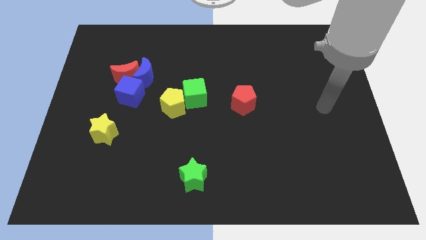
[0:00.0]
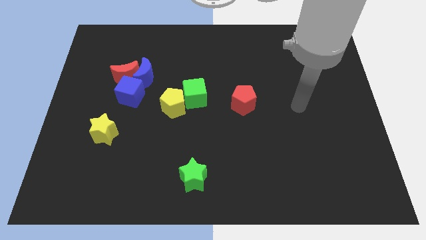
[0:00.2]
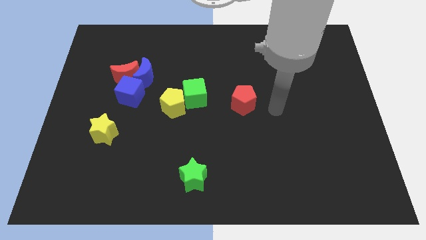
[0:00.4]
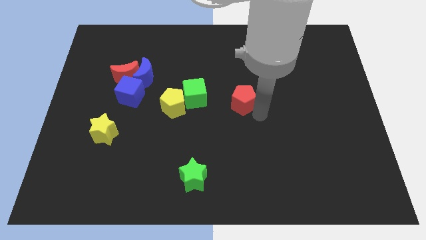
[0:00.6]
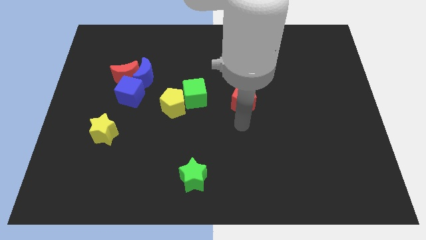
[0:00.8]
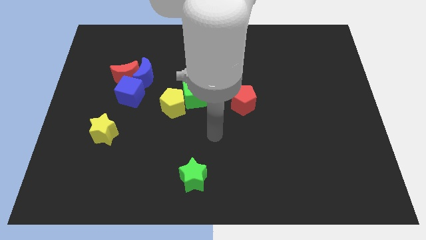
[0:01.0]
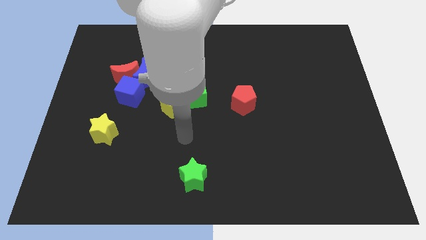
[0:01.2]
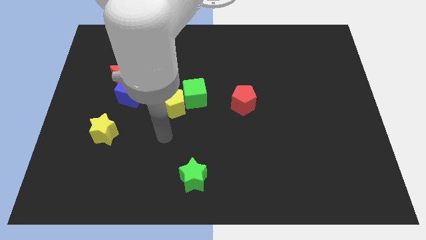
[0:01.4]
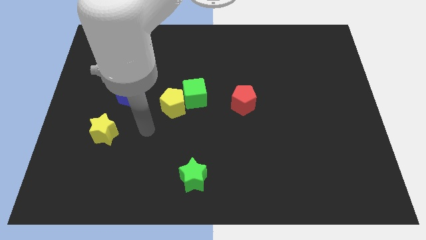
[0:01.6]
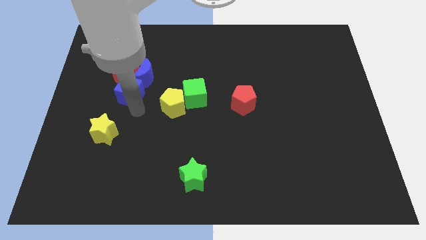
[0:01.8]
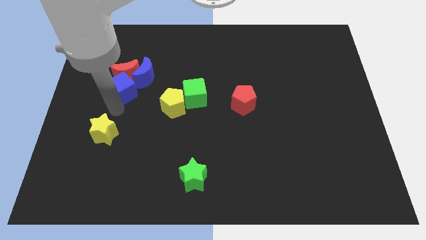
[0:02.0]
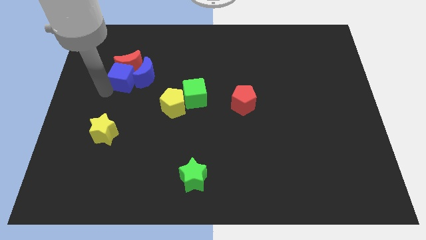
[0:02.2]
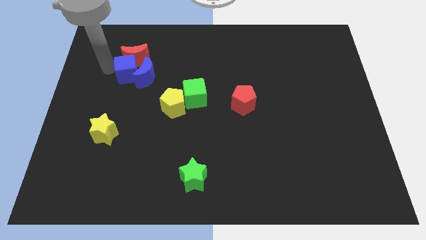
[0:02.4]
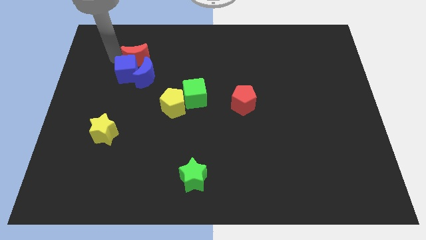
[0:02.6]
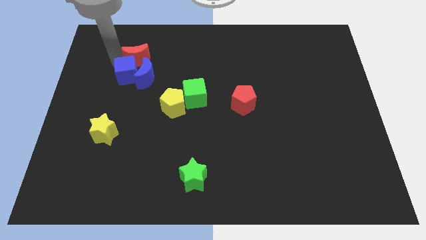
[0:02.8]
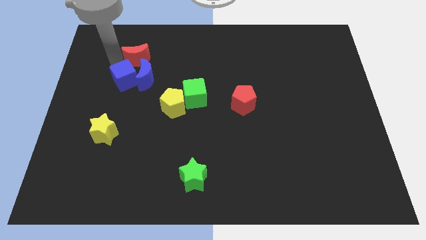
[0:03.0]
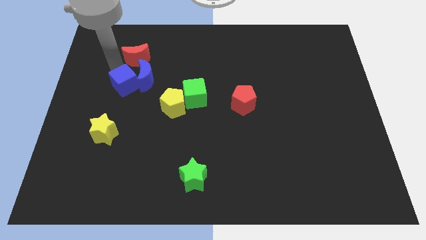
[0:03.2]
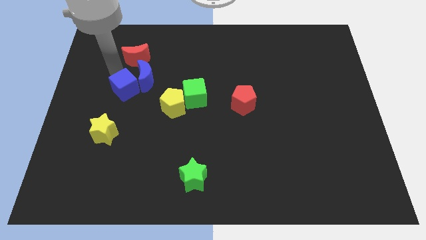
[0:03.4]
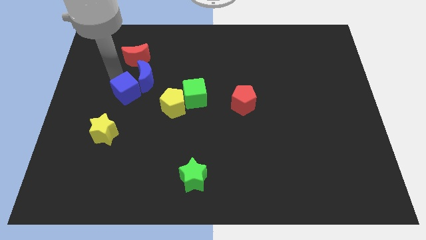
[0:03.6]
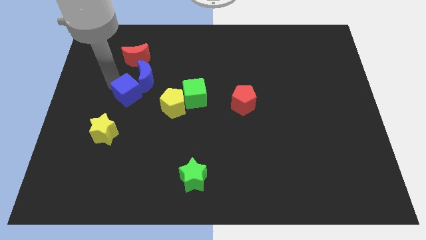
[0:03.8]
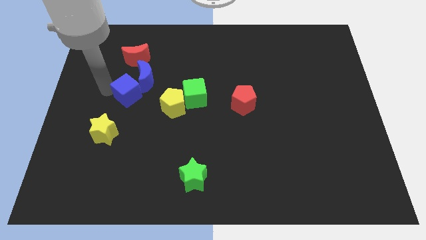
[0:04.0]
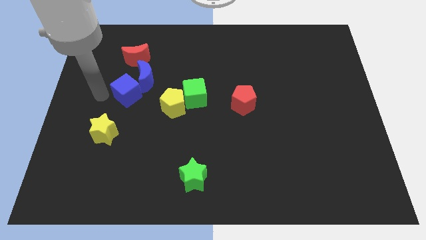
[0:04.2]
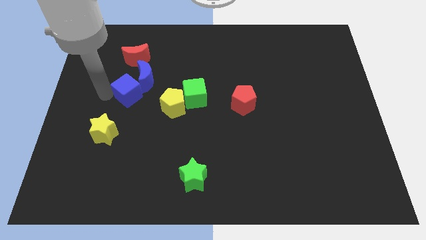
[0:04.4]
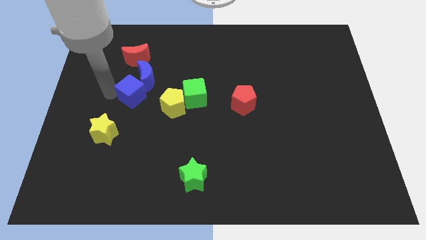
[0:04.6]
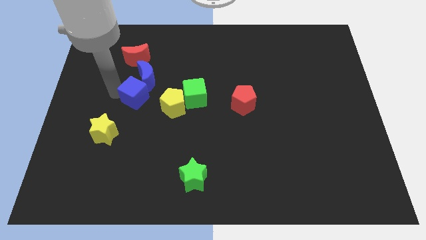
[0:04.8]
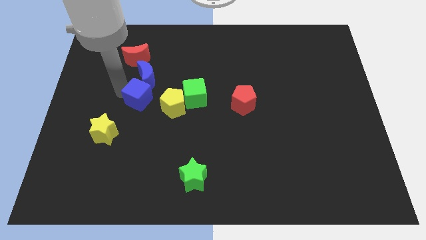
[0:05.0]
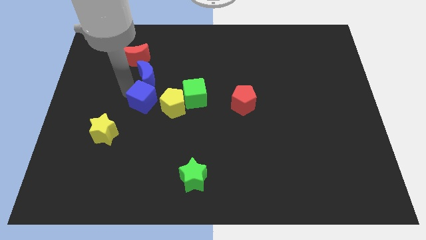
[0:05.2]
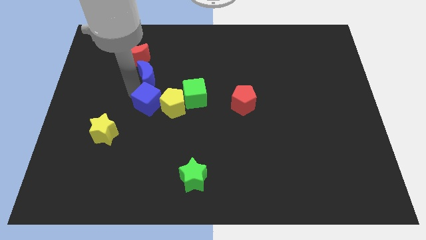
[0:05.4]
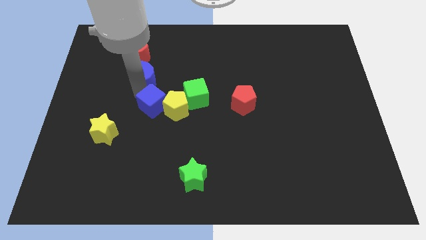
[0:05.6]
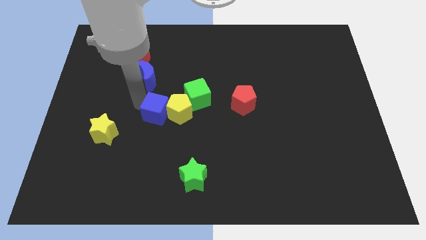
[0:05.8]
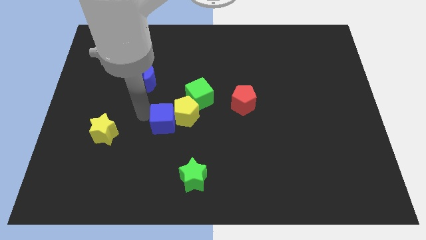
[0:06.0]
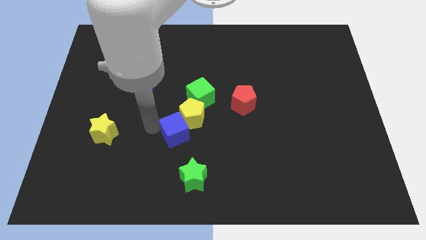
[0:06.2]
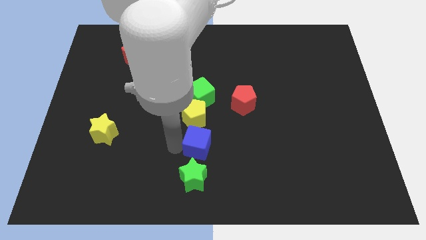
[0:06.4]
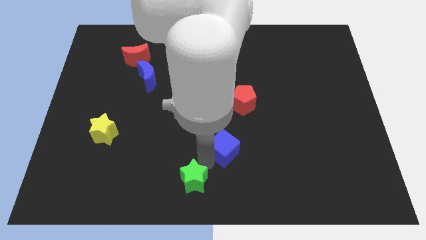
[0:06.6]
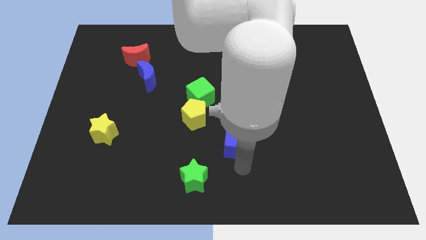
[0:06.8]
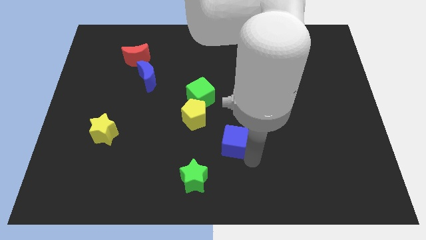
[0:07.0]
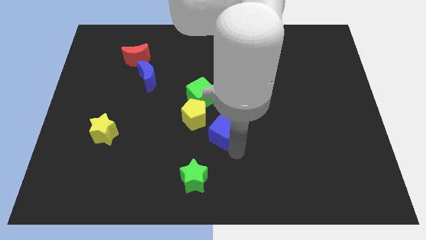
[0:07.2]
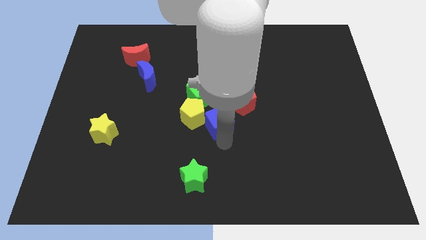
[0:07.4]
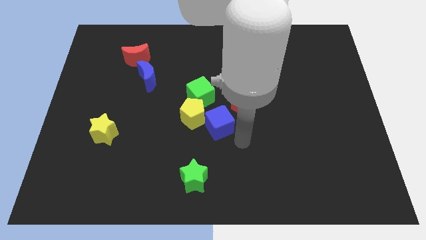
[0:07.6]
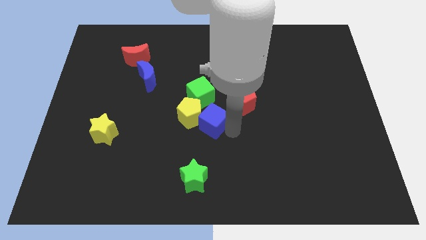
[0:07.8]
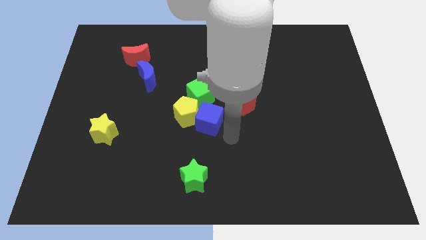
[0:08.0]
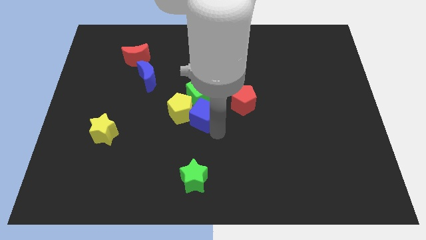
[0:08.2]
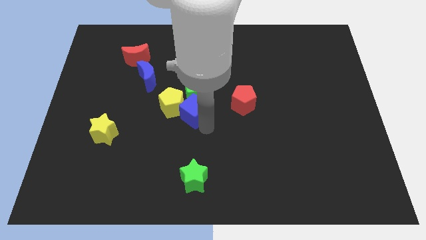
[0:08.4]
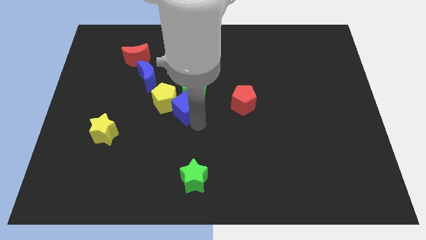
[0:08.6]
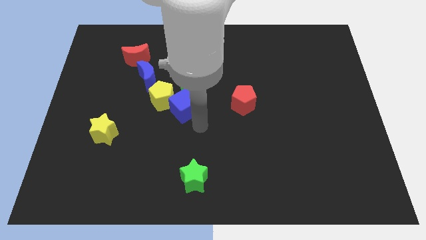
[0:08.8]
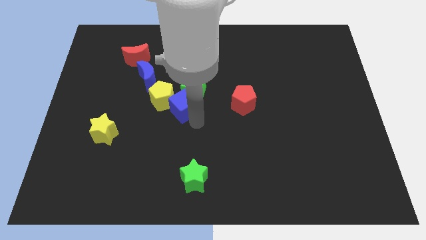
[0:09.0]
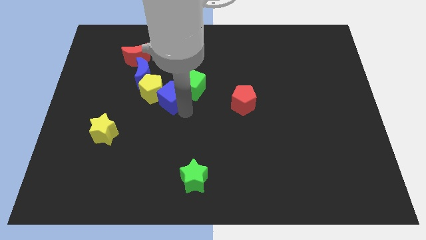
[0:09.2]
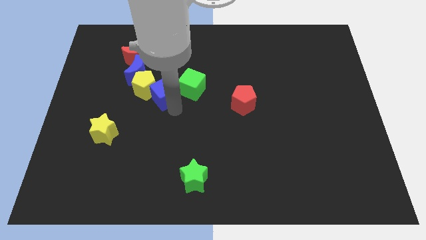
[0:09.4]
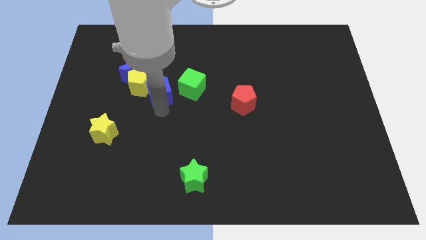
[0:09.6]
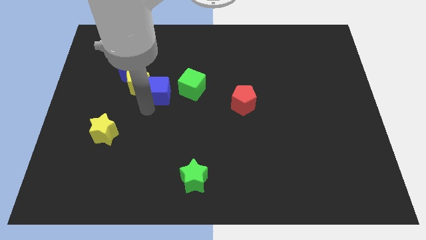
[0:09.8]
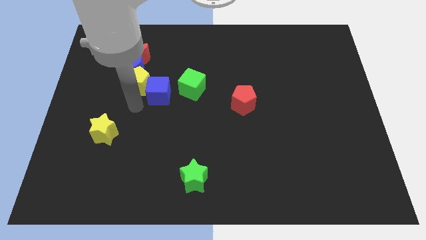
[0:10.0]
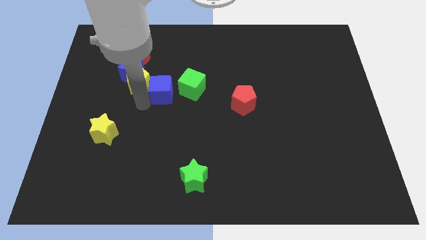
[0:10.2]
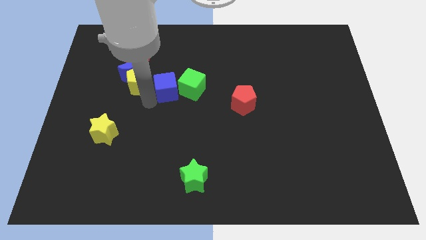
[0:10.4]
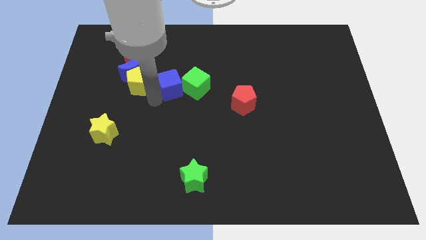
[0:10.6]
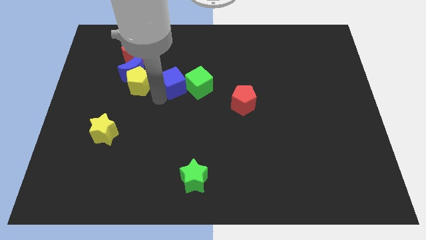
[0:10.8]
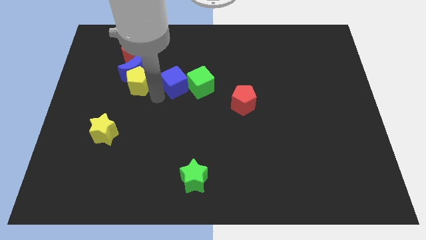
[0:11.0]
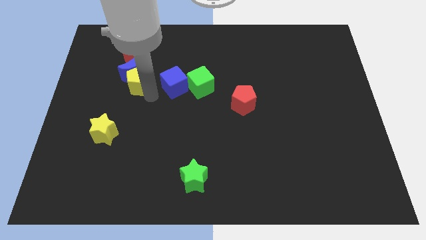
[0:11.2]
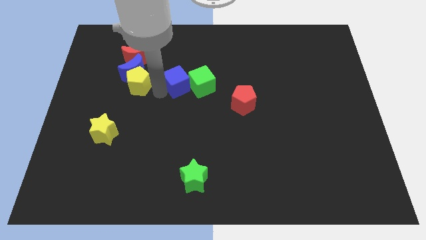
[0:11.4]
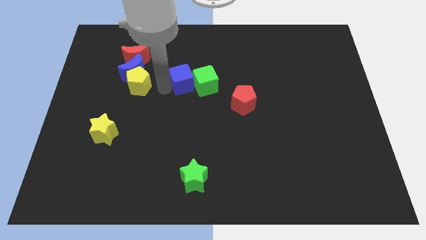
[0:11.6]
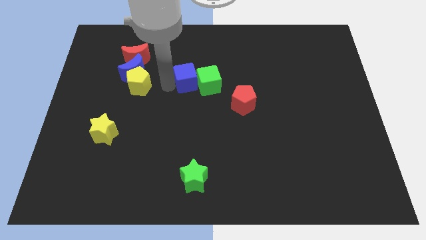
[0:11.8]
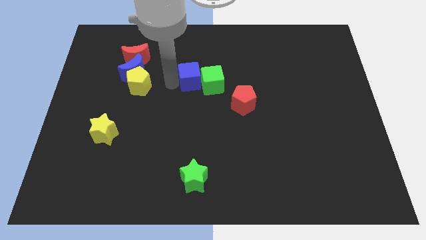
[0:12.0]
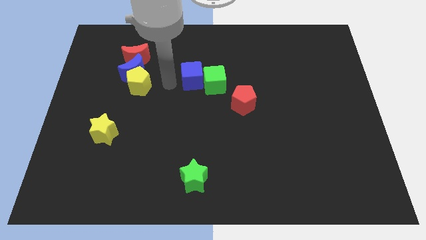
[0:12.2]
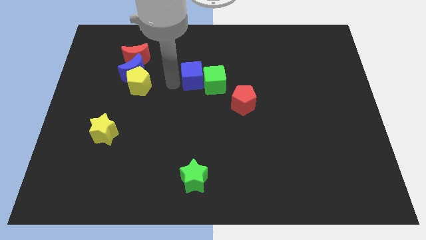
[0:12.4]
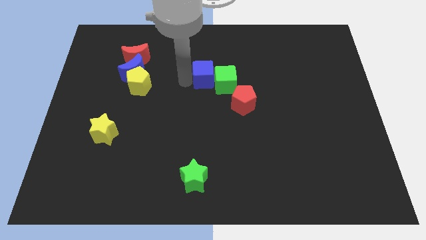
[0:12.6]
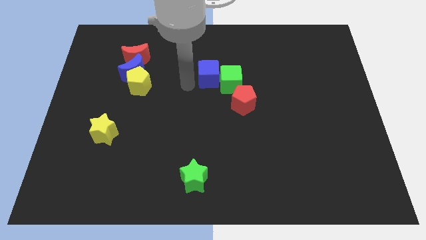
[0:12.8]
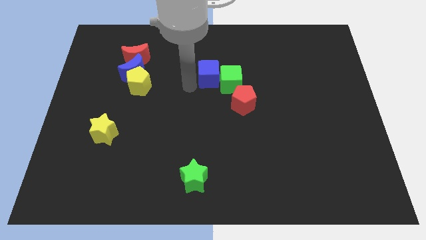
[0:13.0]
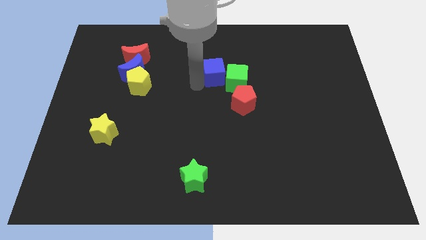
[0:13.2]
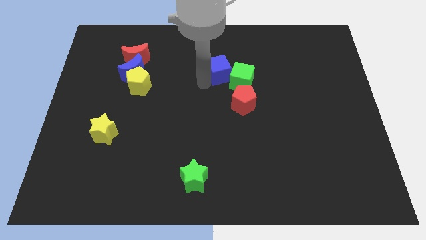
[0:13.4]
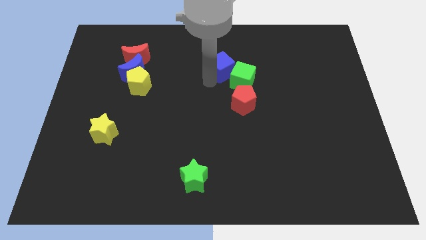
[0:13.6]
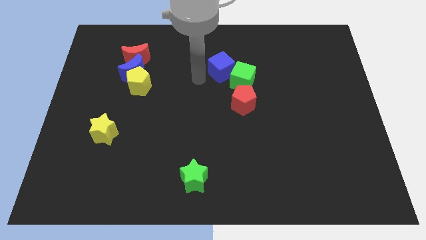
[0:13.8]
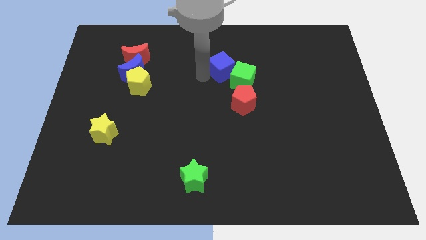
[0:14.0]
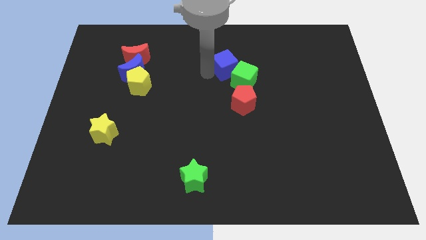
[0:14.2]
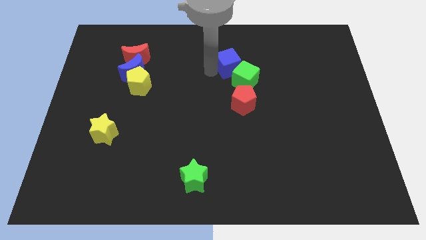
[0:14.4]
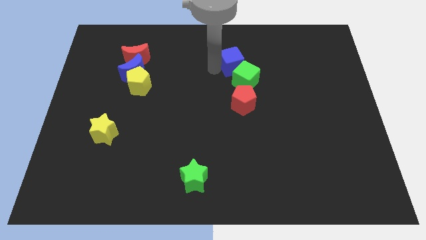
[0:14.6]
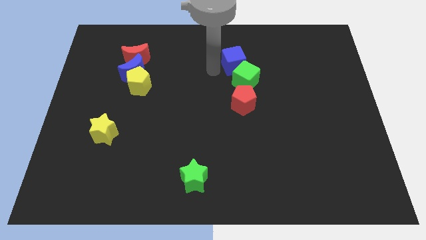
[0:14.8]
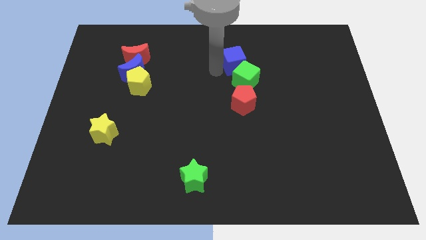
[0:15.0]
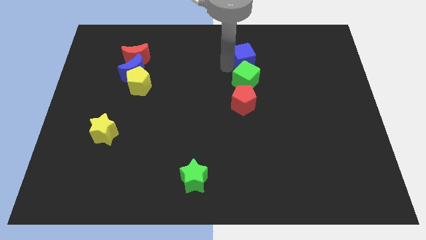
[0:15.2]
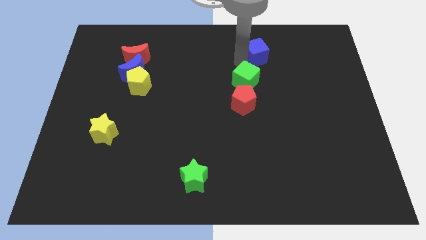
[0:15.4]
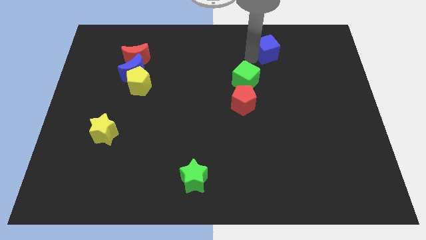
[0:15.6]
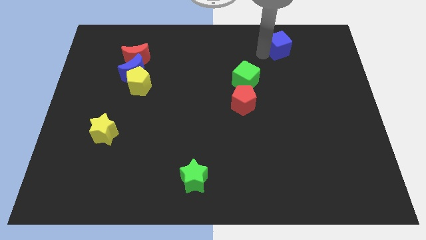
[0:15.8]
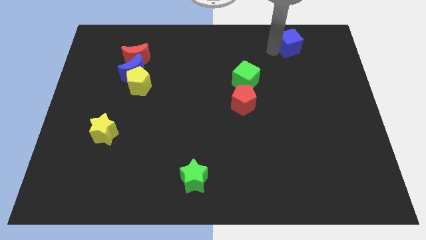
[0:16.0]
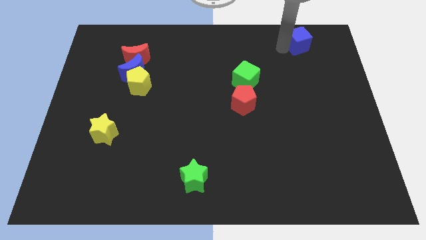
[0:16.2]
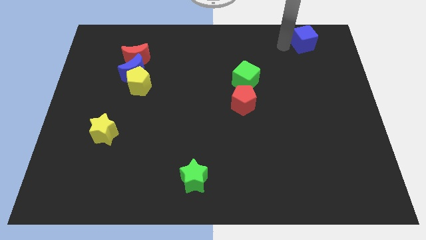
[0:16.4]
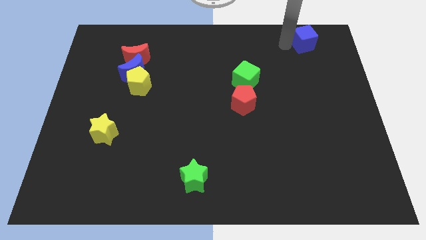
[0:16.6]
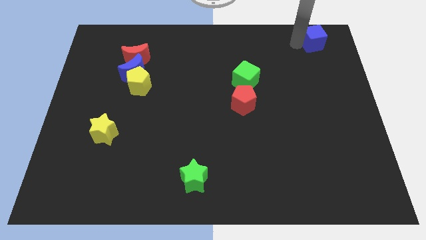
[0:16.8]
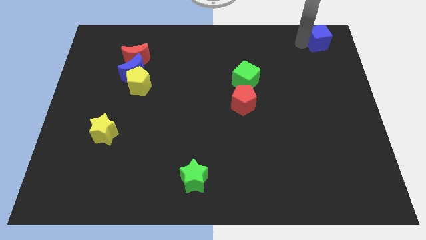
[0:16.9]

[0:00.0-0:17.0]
push the blue cube to the top right of the board
